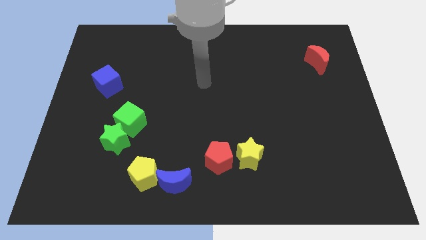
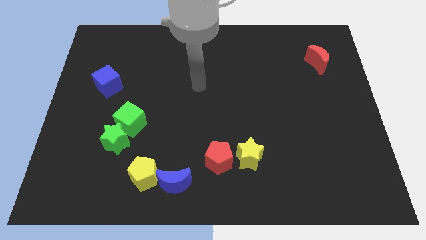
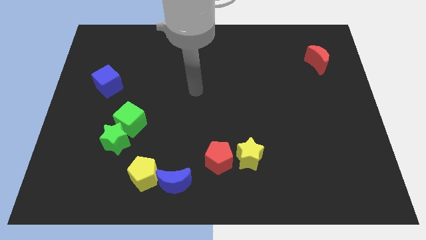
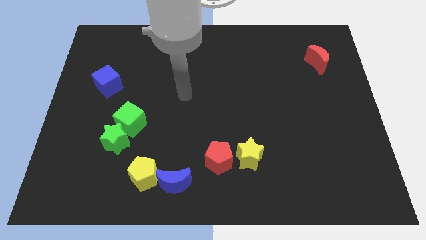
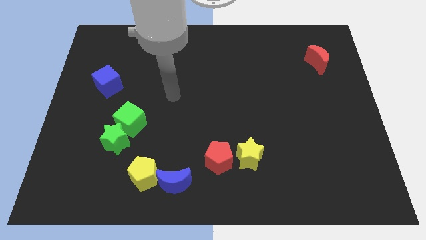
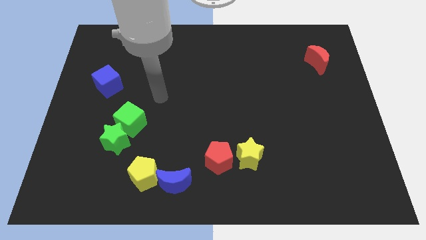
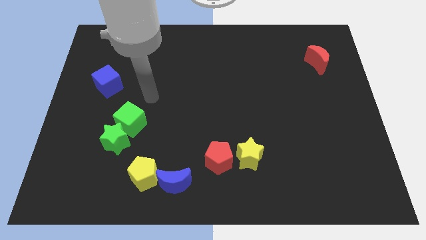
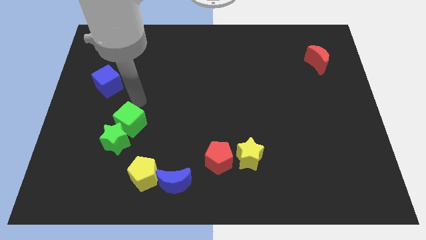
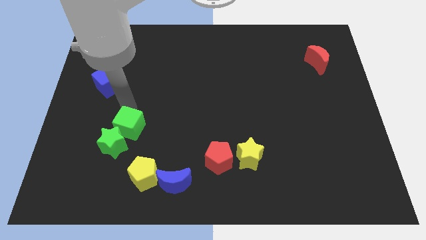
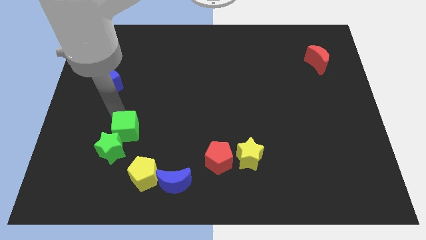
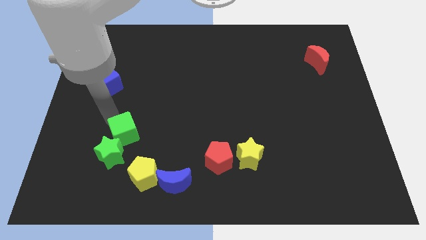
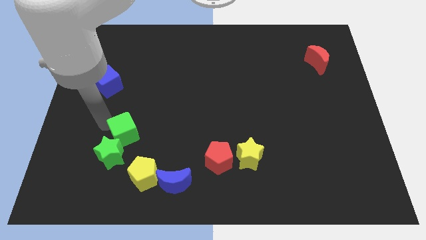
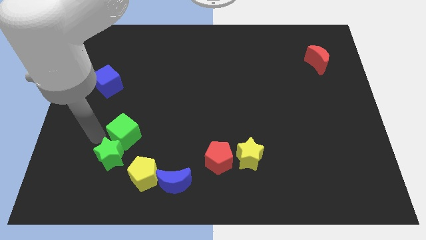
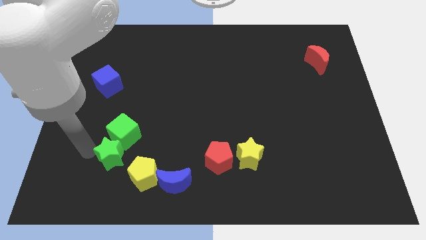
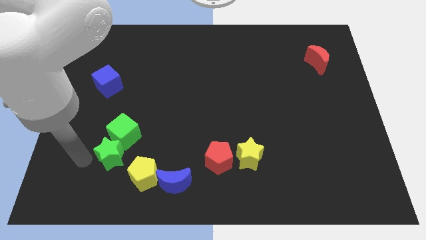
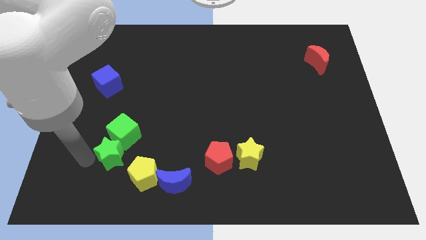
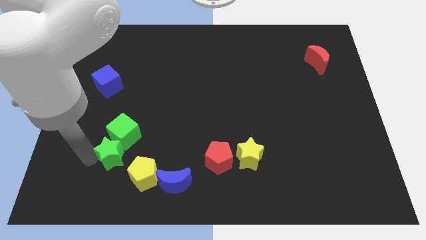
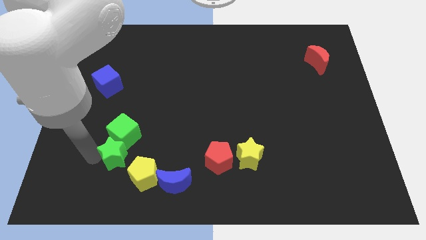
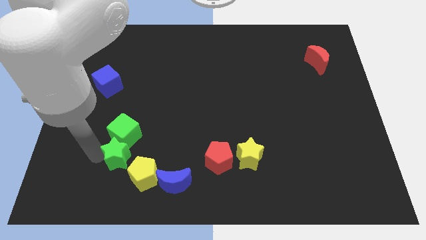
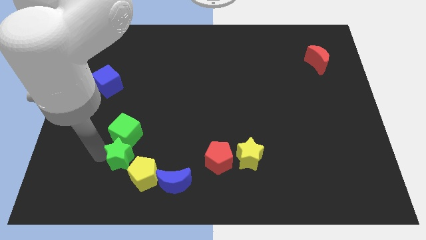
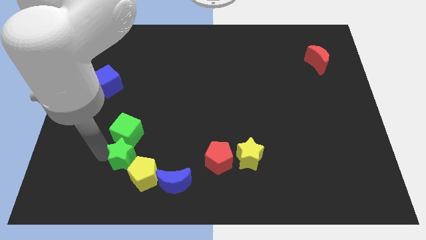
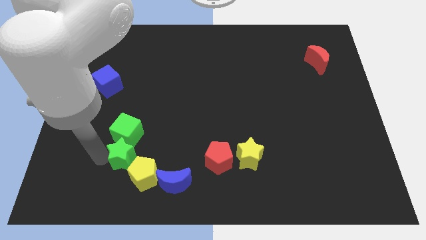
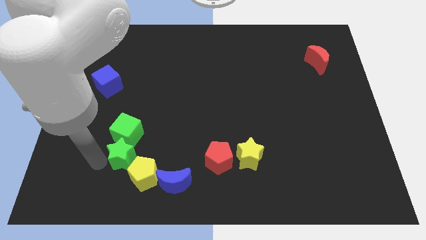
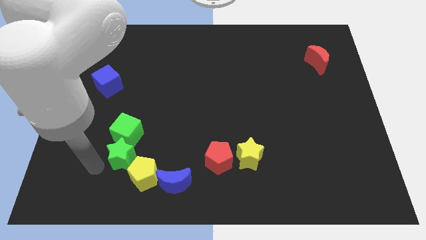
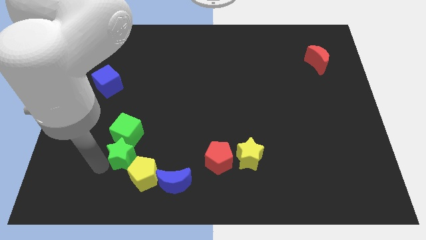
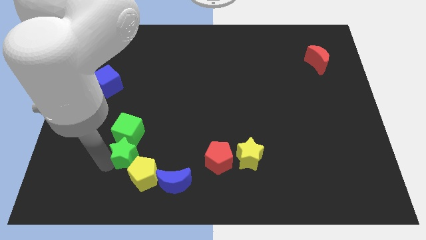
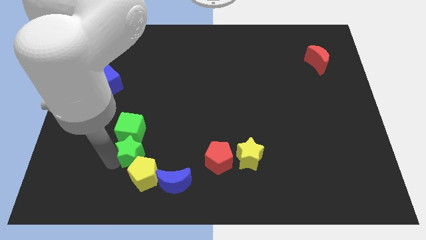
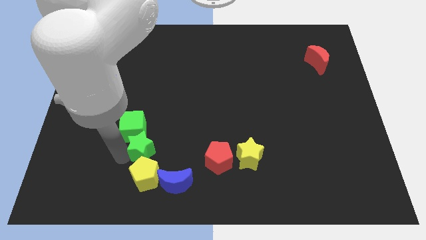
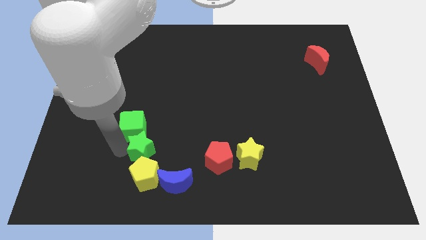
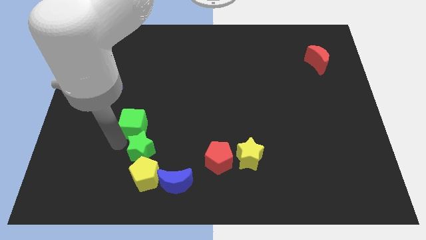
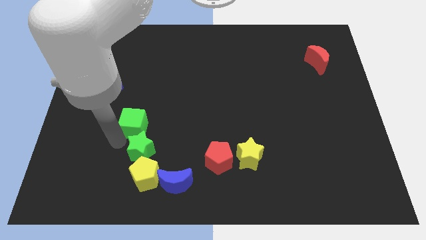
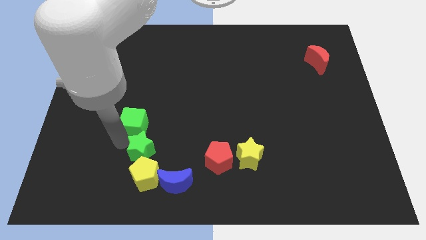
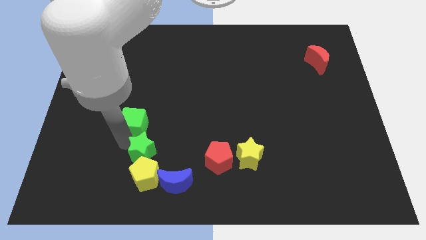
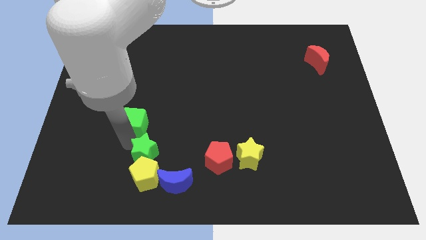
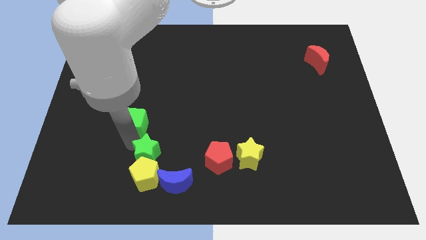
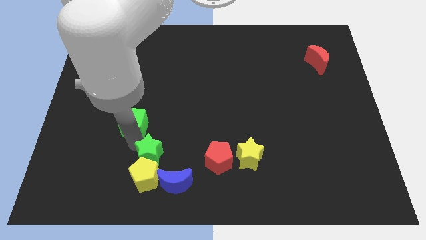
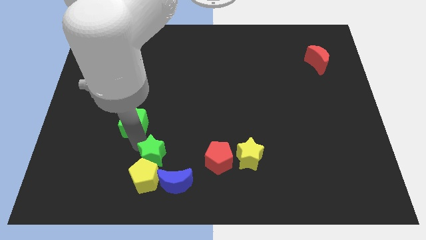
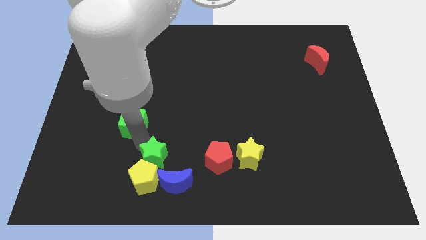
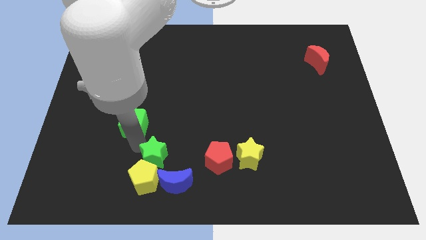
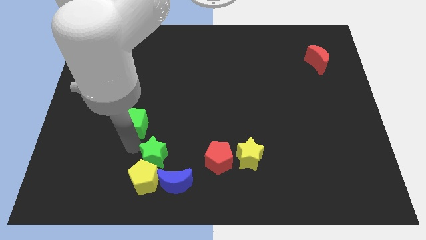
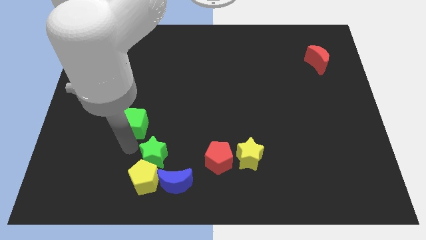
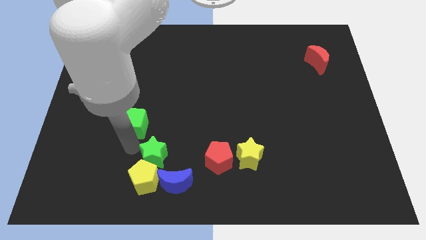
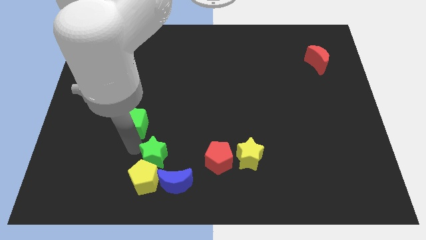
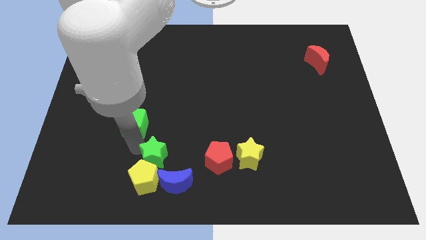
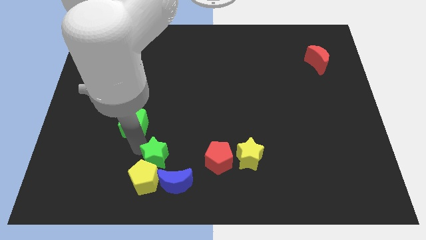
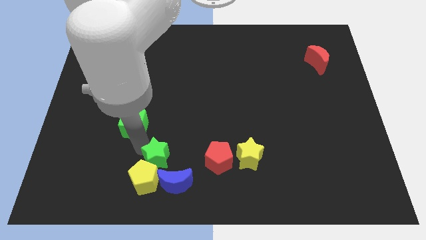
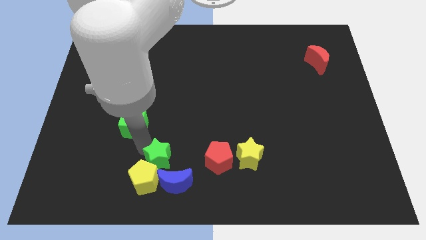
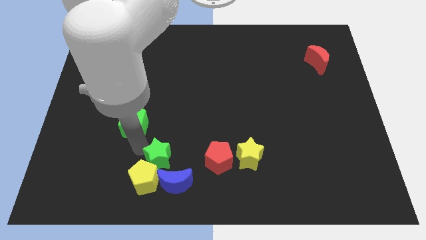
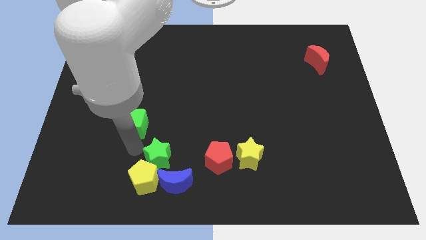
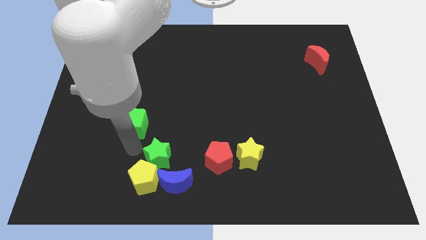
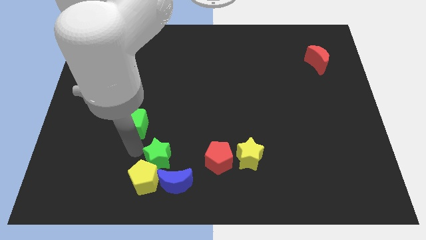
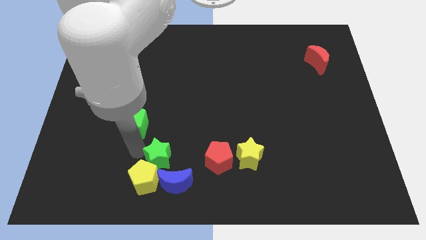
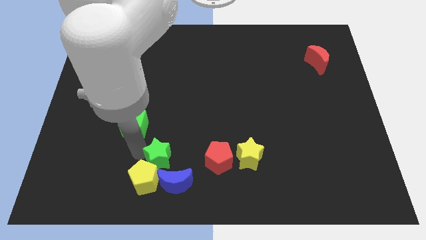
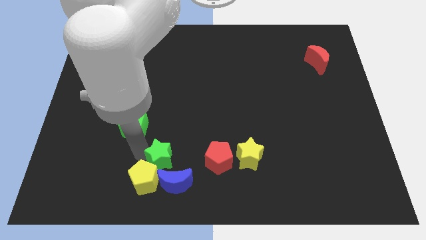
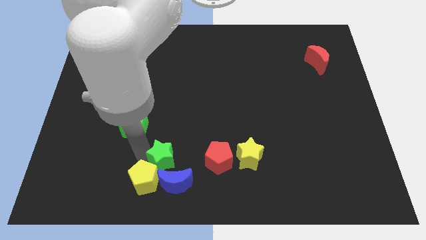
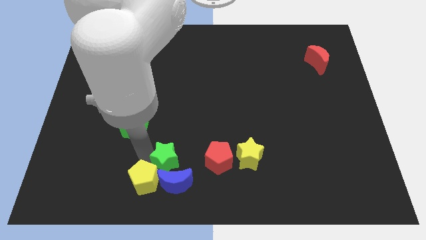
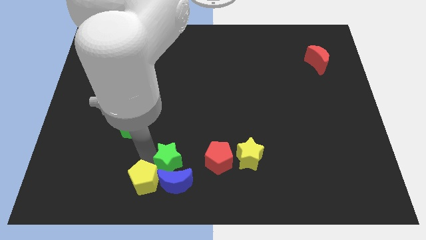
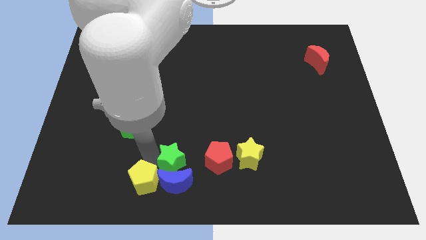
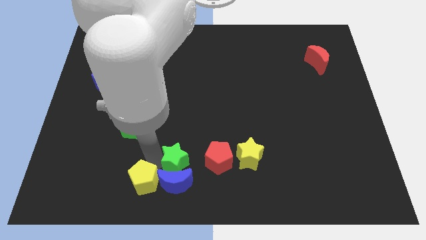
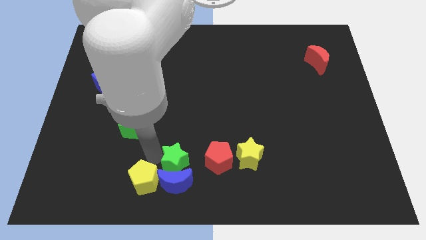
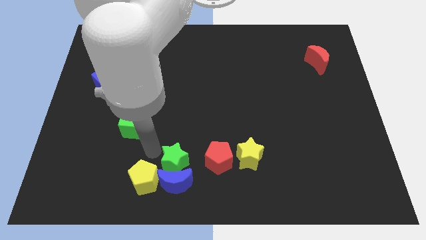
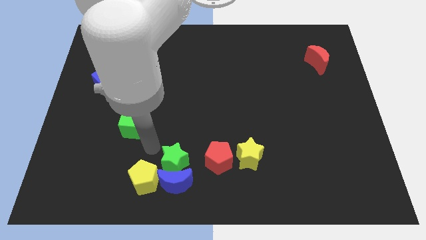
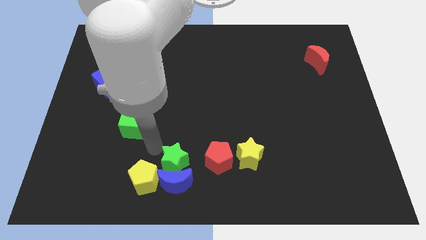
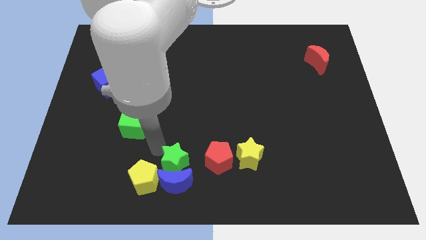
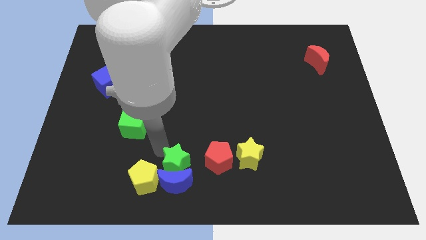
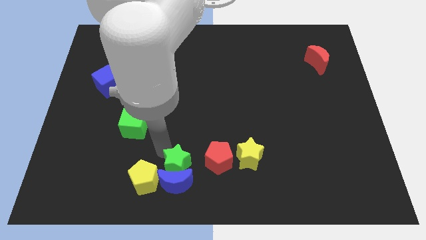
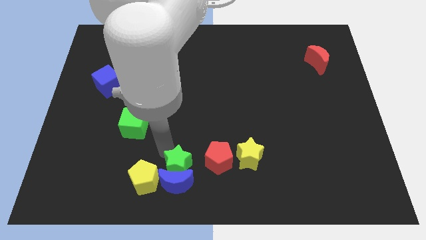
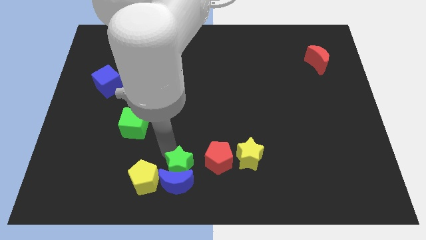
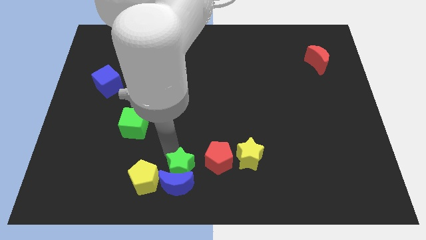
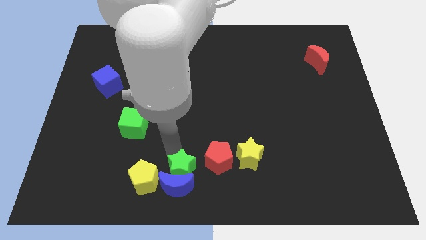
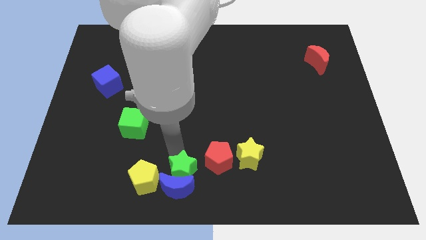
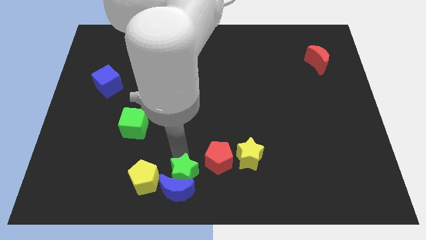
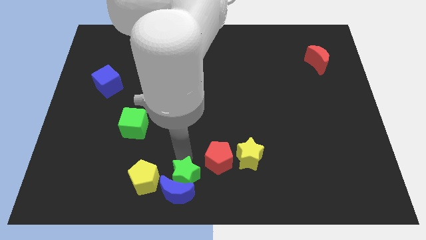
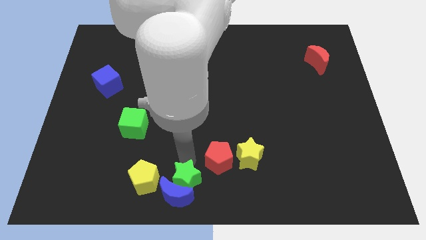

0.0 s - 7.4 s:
put the green star right of the blue moon
